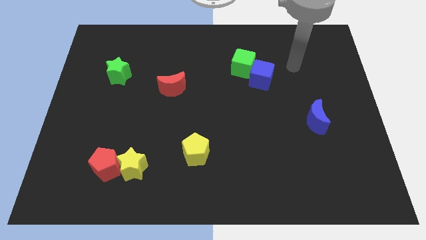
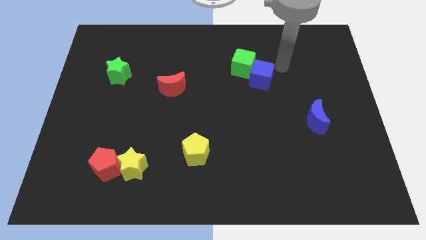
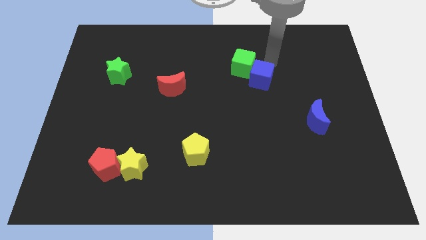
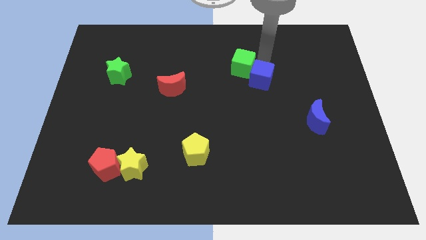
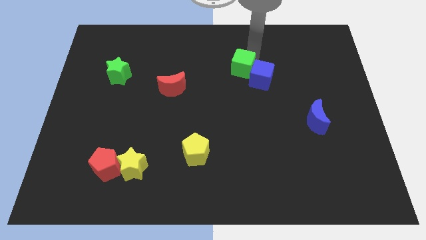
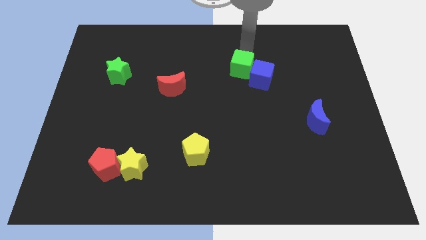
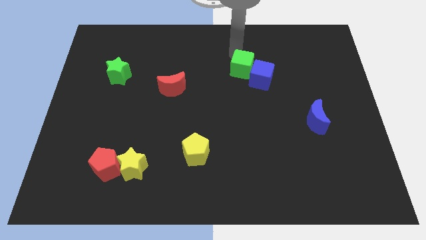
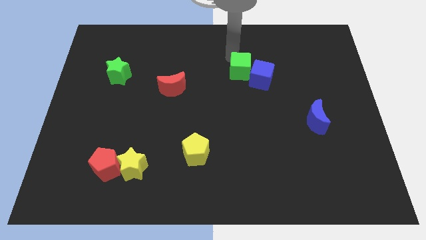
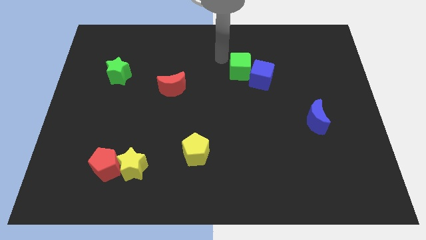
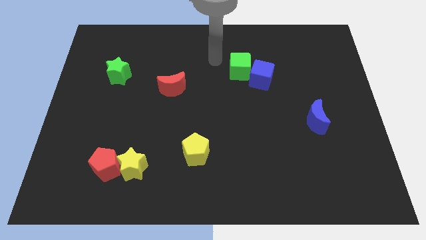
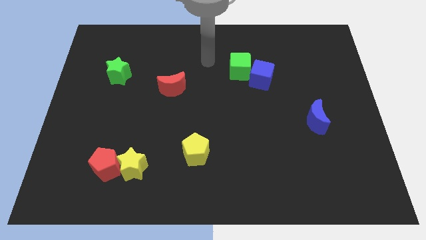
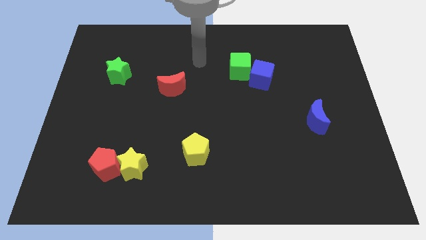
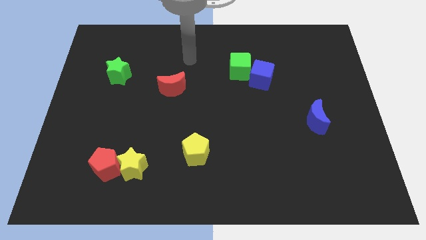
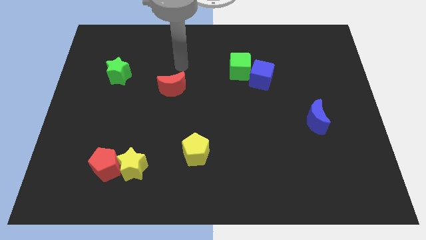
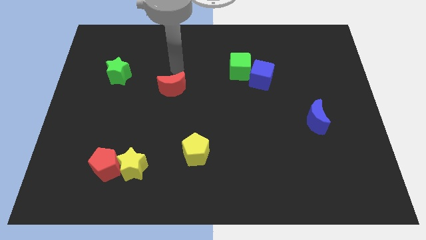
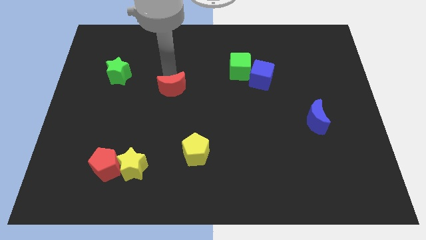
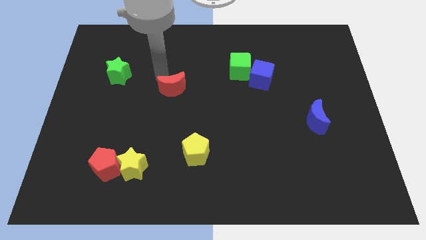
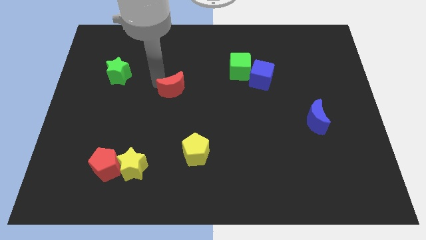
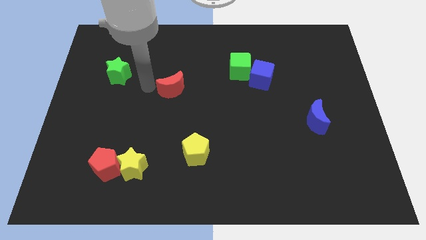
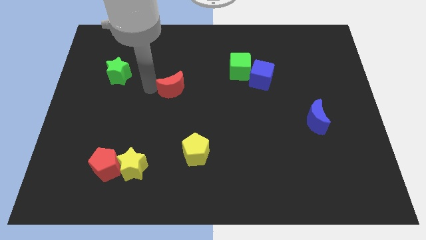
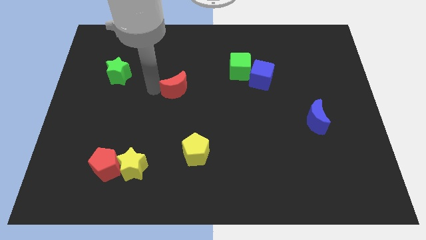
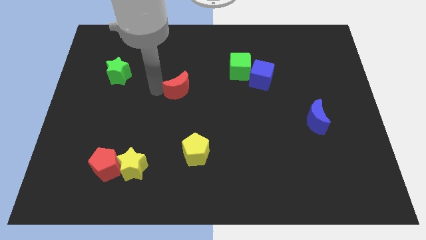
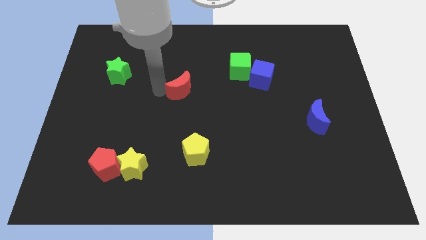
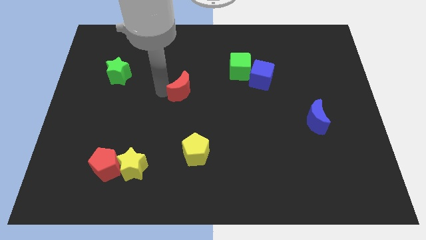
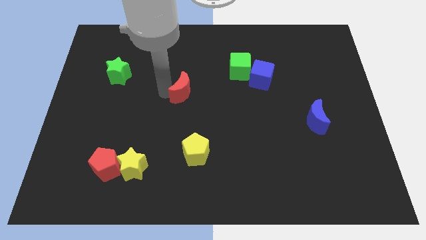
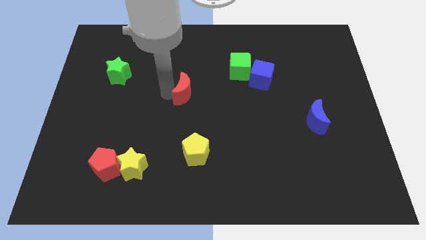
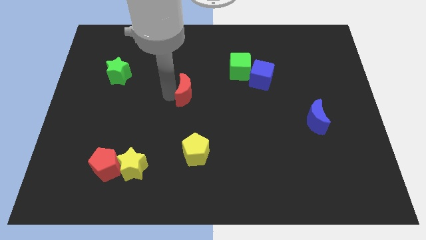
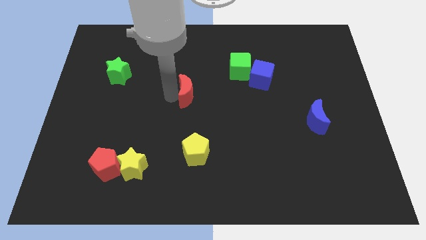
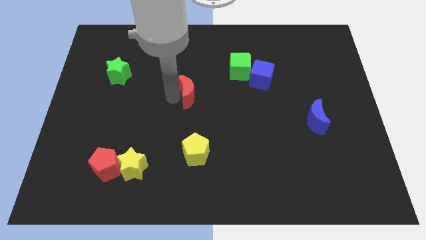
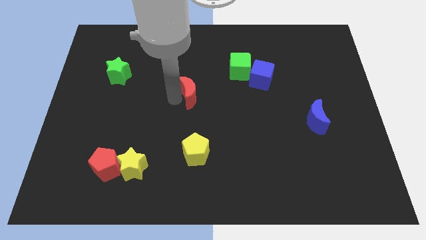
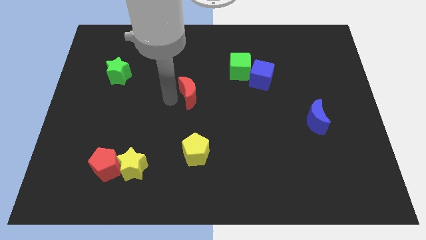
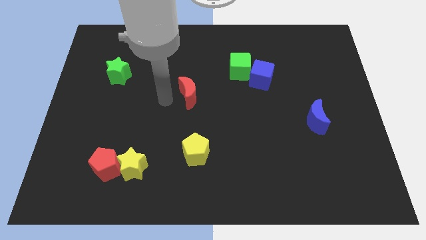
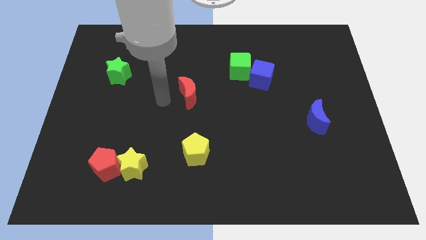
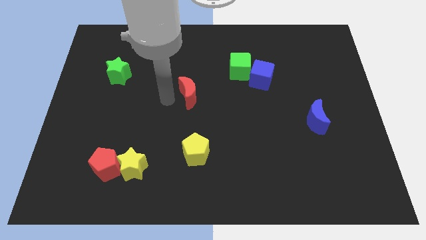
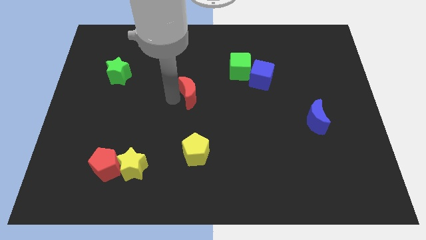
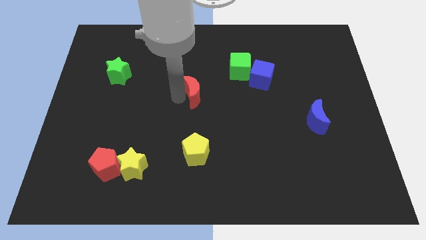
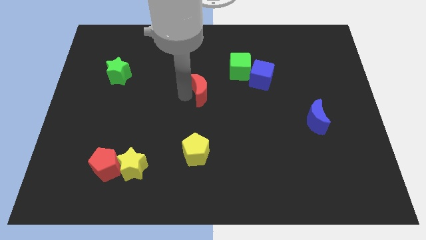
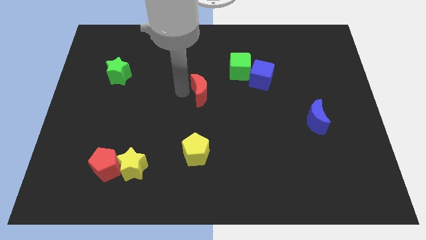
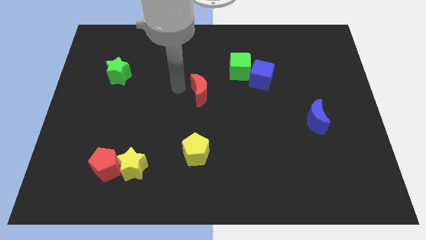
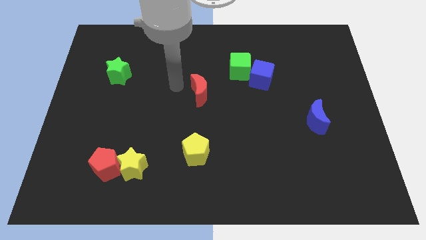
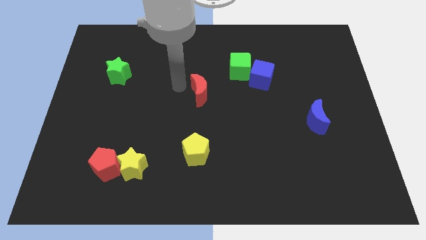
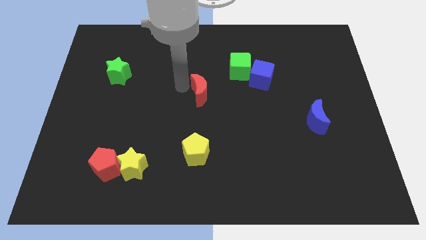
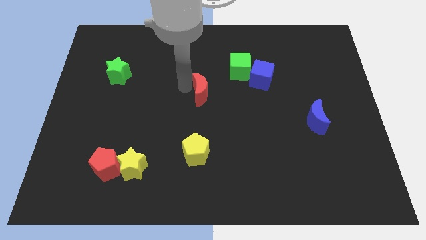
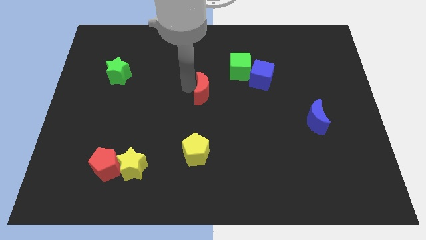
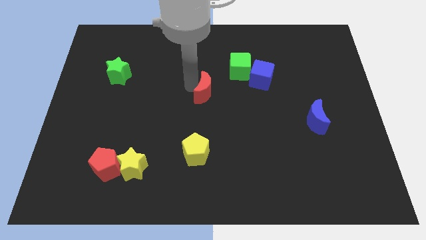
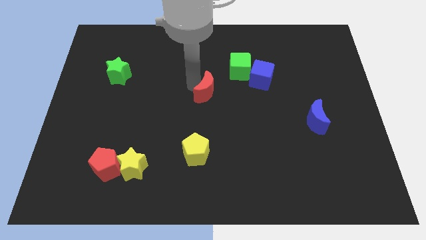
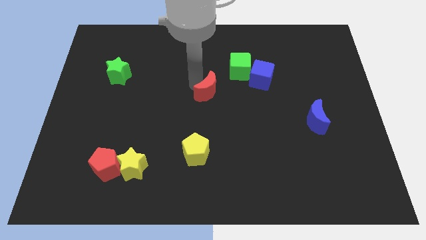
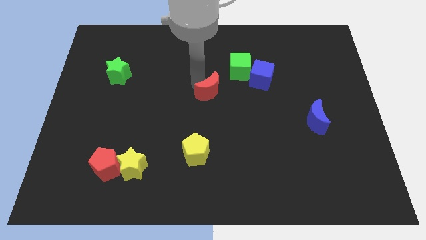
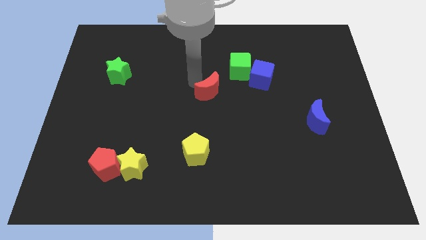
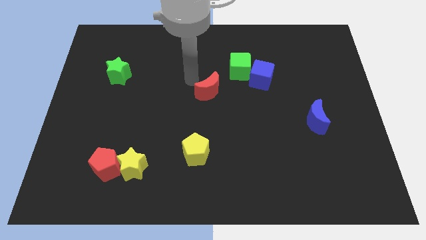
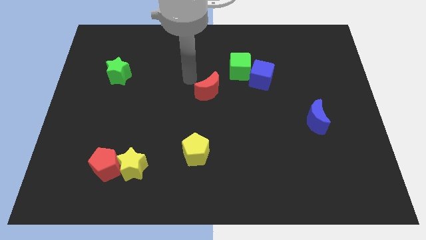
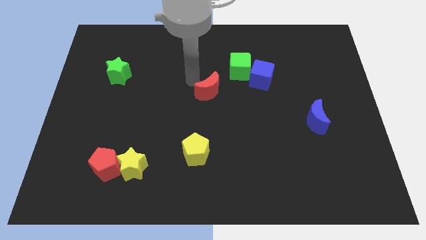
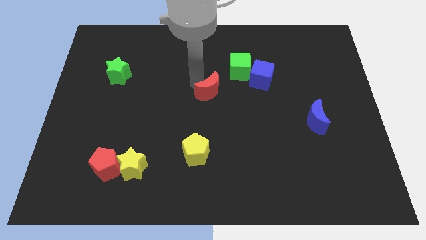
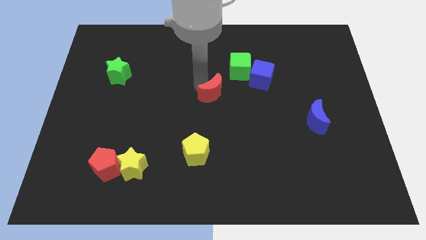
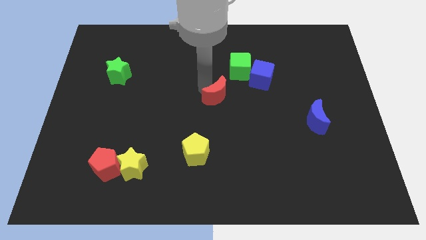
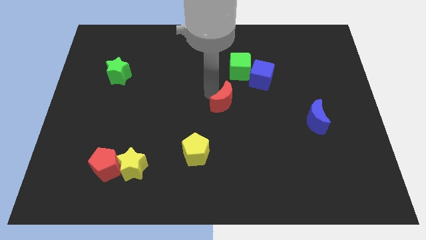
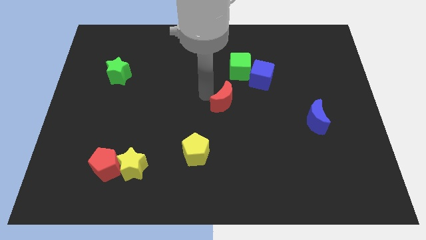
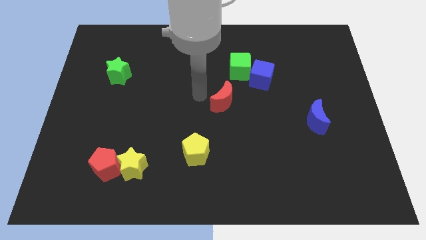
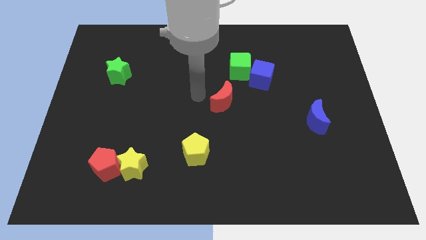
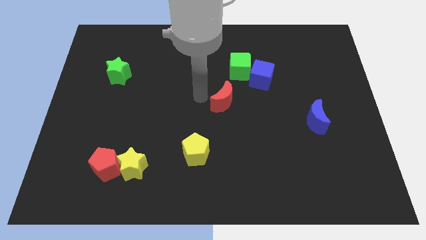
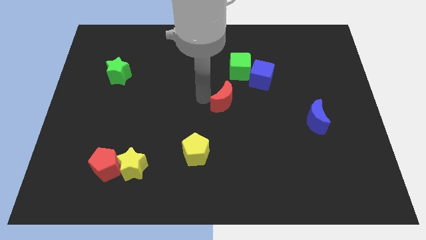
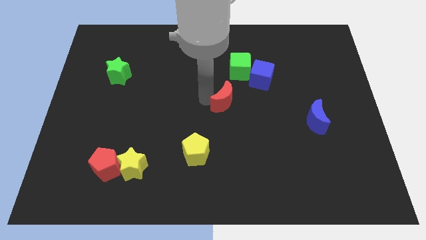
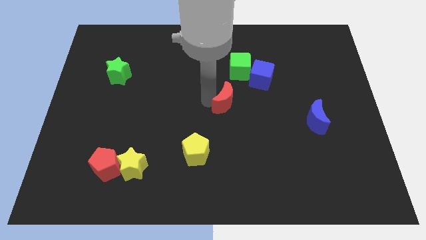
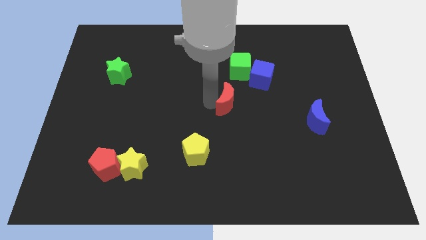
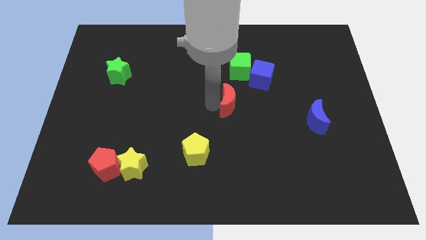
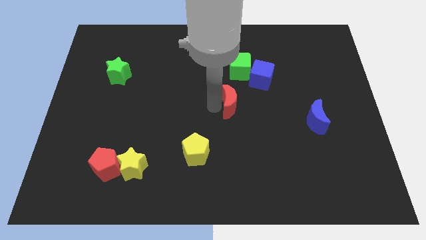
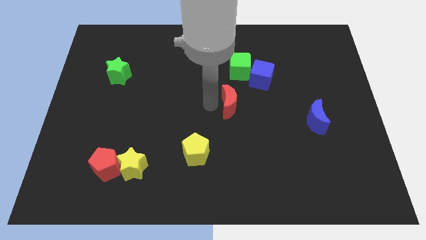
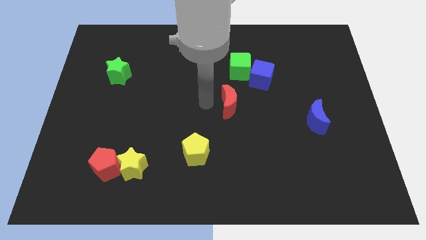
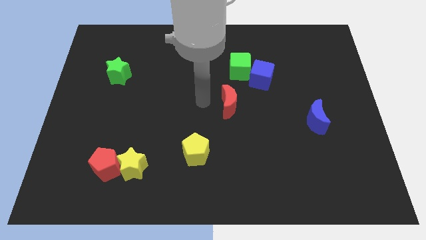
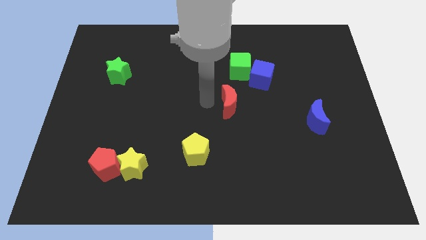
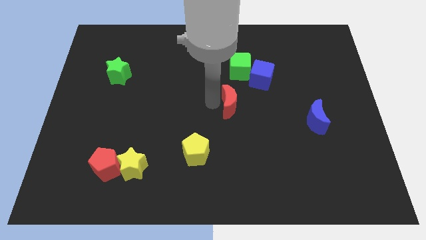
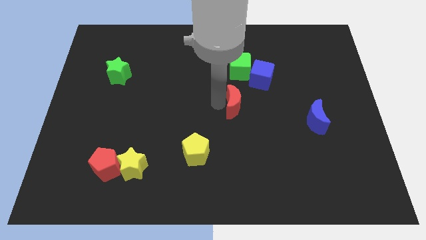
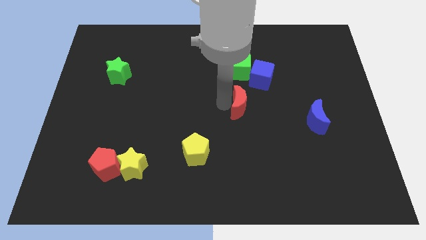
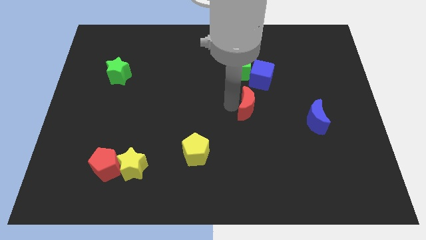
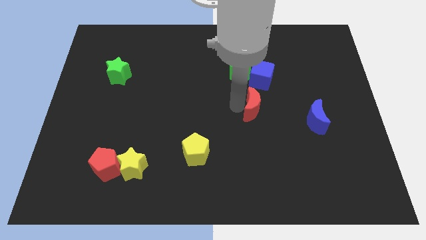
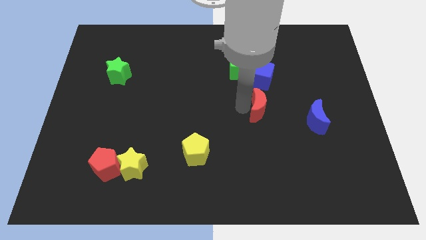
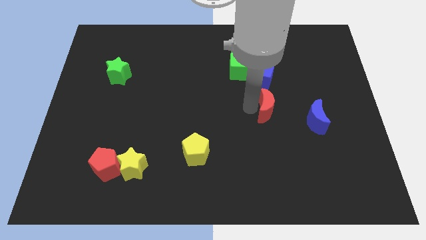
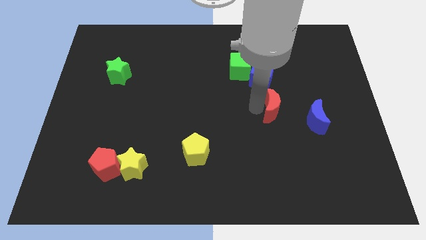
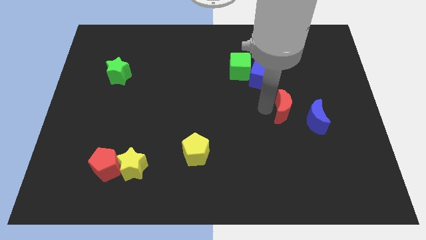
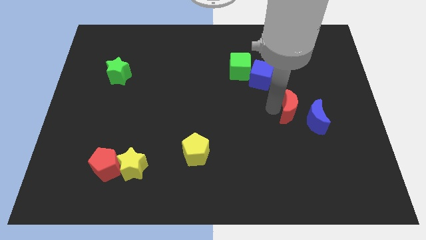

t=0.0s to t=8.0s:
slide the red moon close to the blue moon
